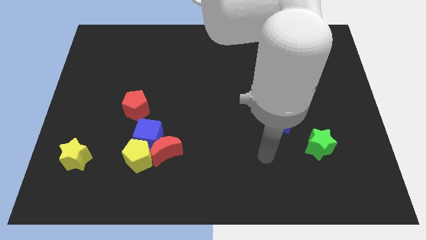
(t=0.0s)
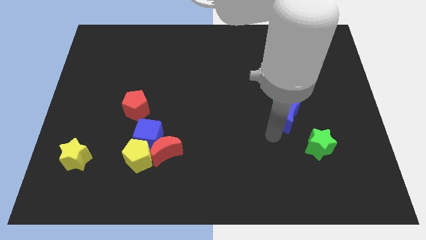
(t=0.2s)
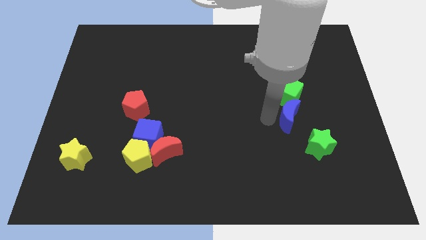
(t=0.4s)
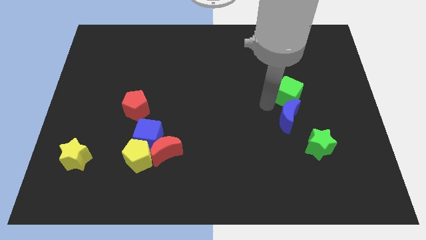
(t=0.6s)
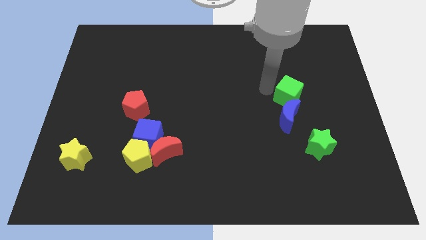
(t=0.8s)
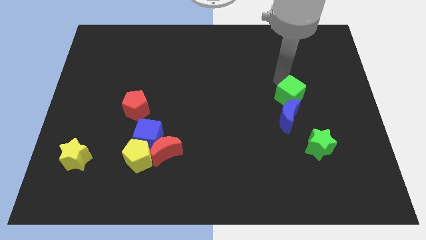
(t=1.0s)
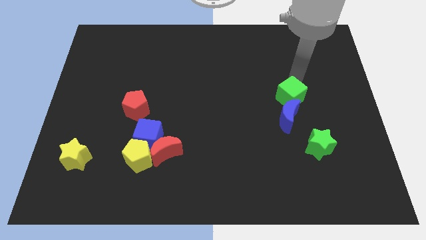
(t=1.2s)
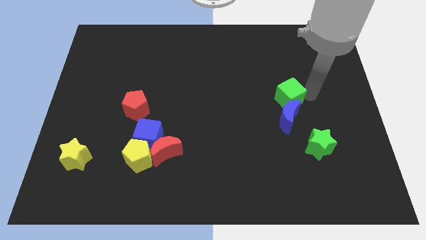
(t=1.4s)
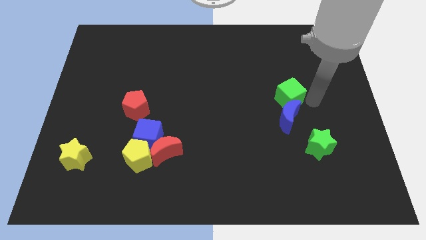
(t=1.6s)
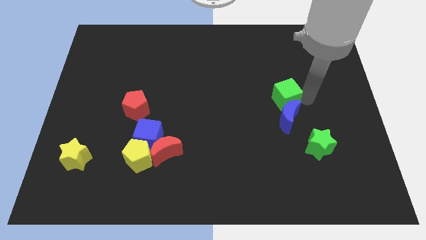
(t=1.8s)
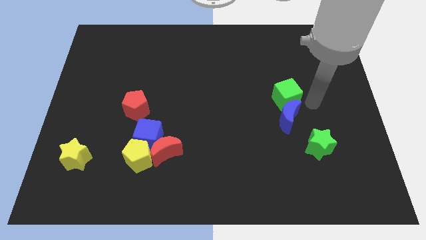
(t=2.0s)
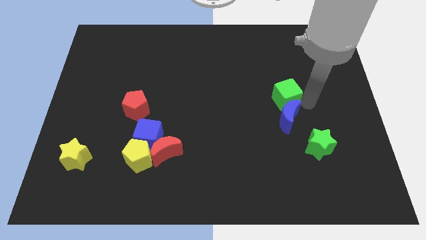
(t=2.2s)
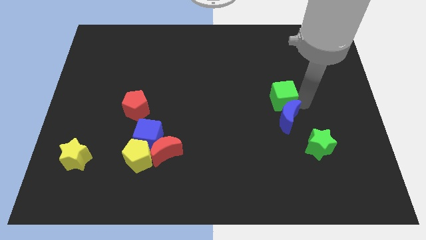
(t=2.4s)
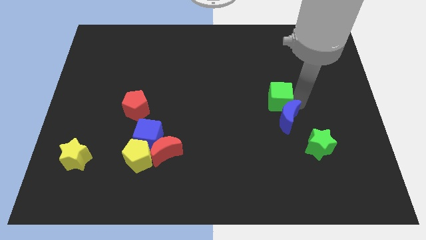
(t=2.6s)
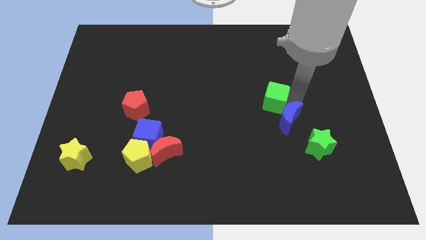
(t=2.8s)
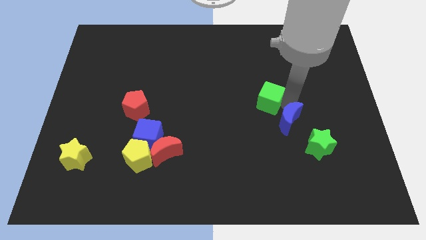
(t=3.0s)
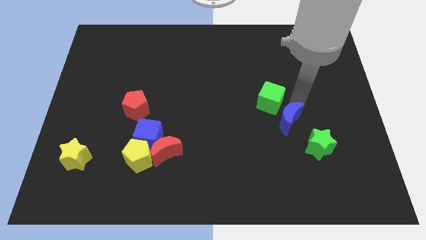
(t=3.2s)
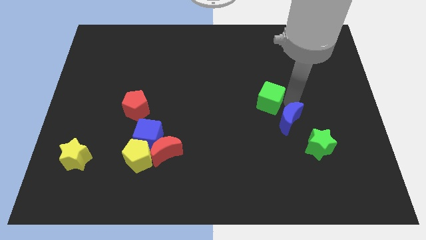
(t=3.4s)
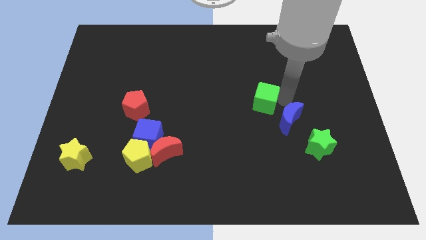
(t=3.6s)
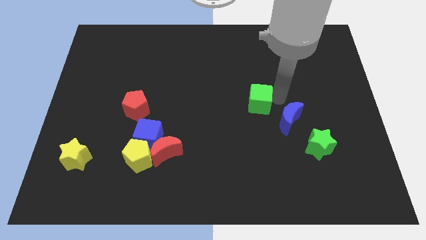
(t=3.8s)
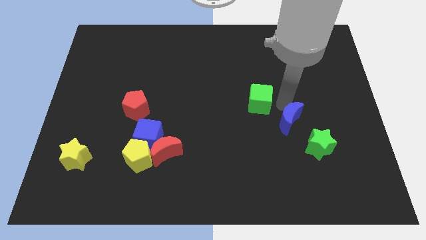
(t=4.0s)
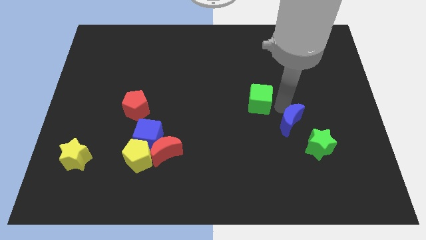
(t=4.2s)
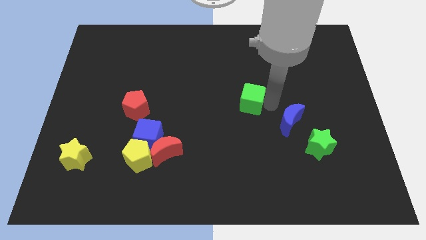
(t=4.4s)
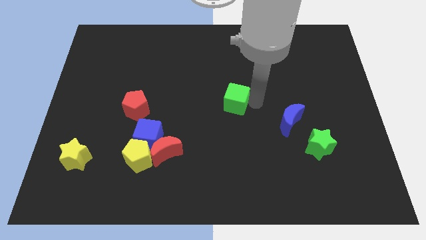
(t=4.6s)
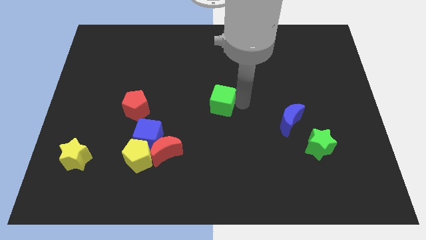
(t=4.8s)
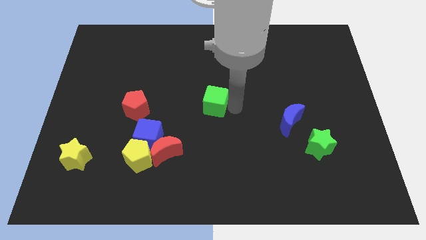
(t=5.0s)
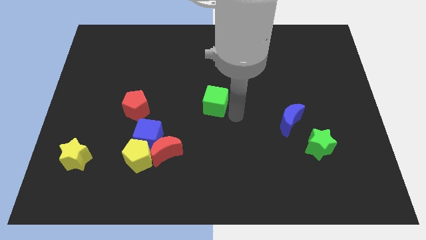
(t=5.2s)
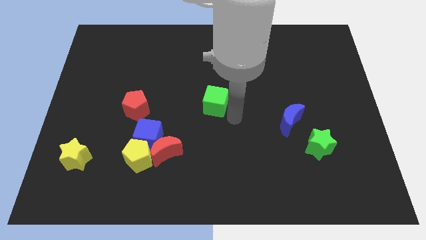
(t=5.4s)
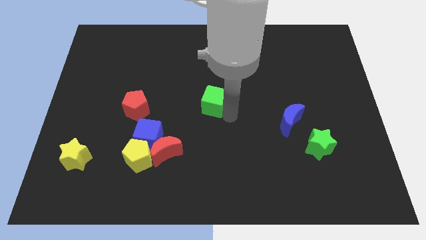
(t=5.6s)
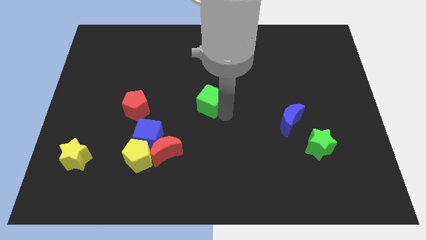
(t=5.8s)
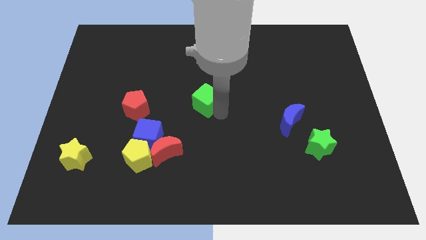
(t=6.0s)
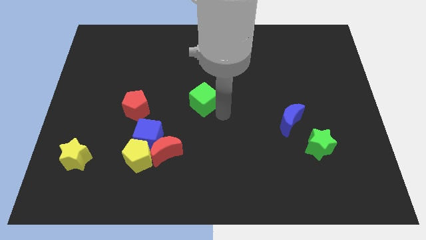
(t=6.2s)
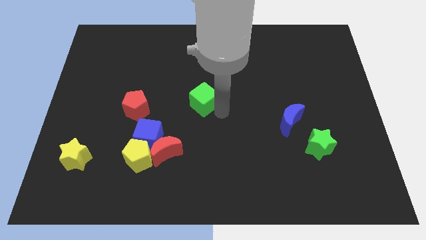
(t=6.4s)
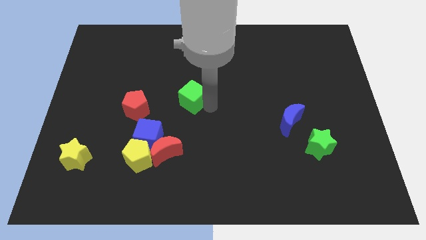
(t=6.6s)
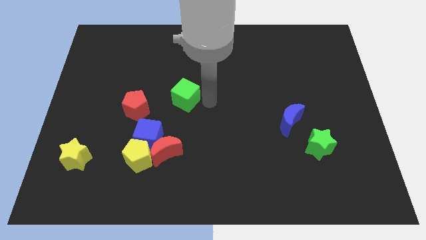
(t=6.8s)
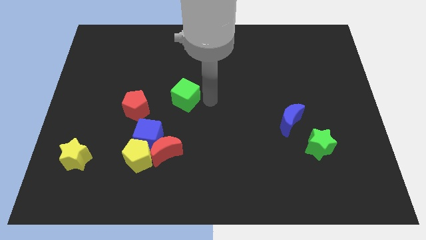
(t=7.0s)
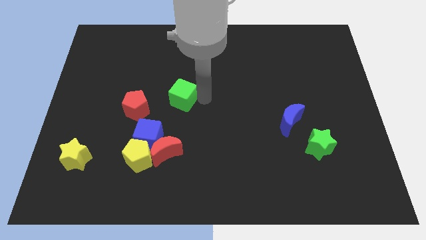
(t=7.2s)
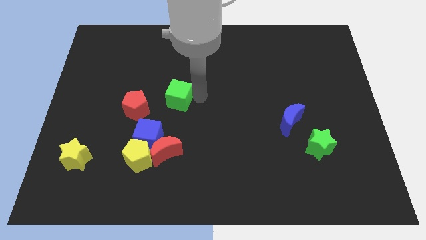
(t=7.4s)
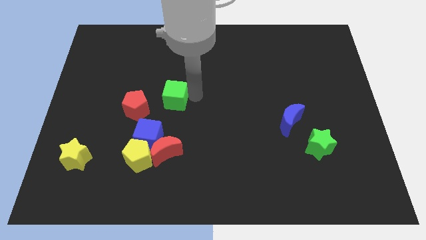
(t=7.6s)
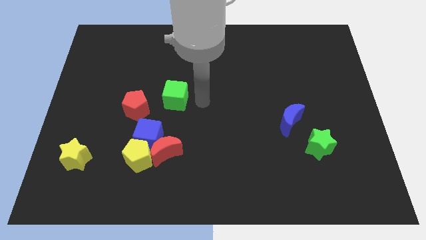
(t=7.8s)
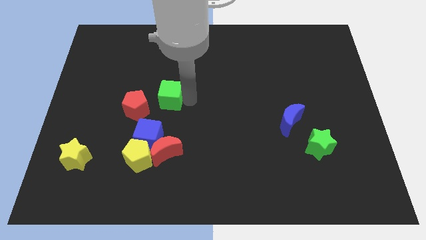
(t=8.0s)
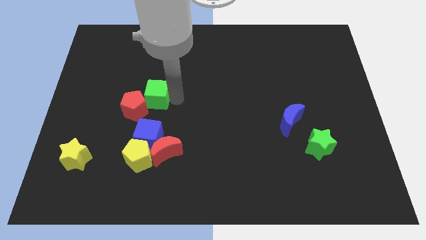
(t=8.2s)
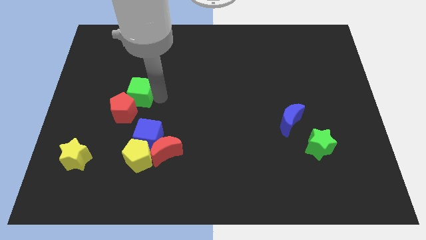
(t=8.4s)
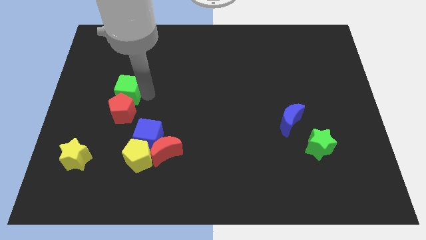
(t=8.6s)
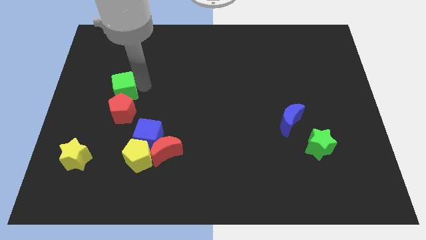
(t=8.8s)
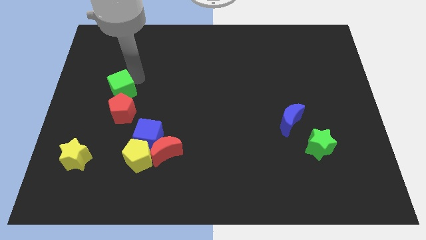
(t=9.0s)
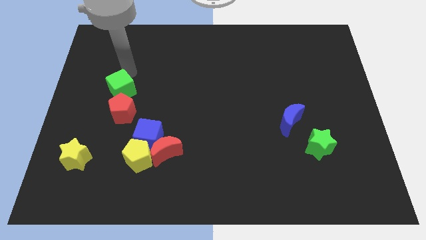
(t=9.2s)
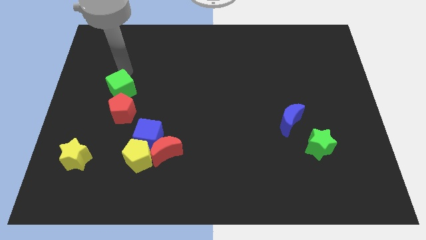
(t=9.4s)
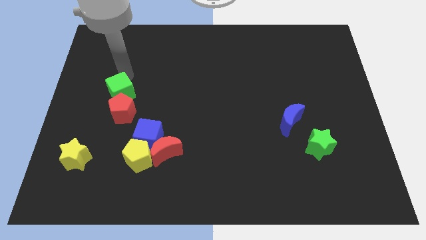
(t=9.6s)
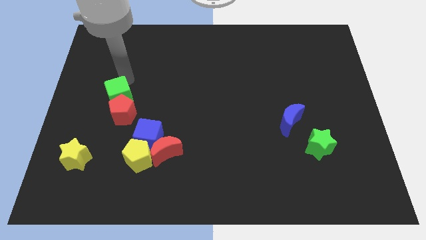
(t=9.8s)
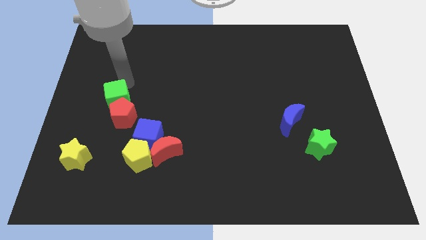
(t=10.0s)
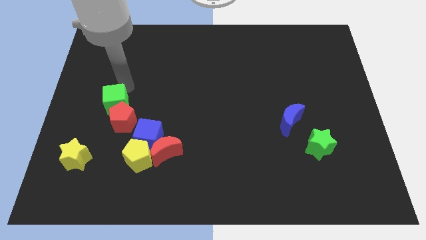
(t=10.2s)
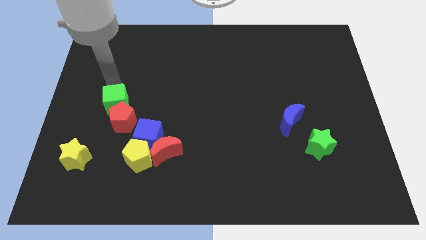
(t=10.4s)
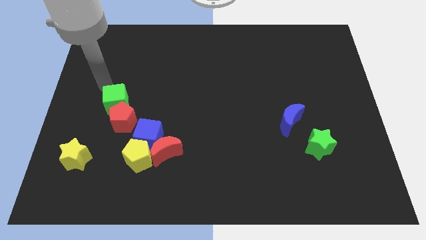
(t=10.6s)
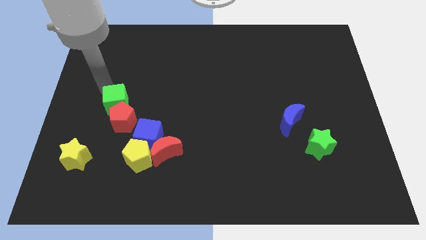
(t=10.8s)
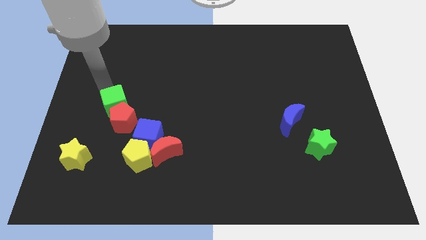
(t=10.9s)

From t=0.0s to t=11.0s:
push the green cube to the top left side of the blue cube
